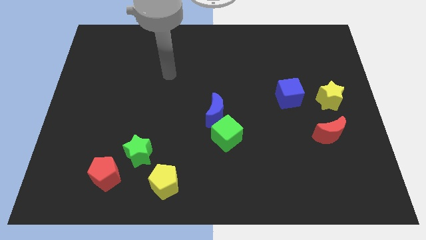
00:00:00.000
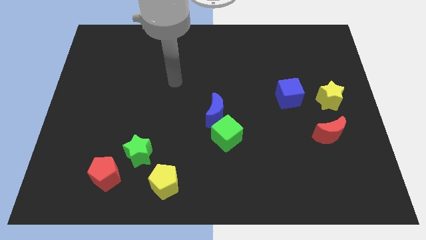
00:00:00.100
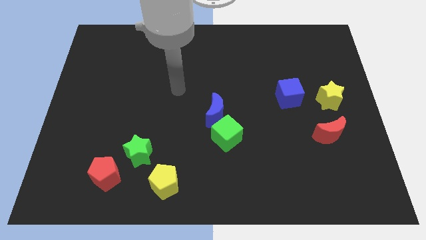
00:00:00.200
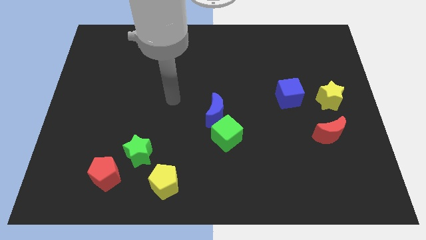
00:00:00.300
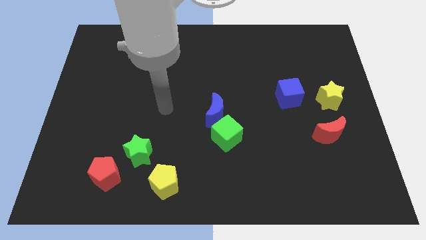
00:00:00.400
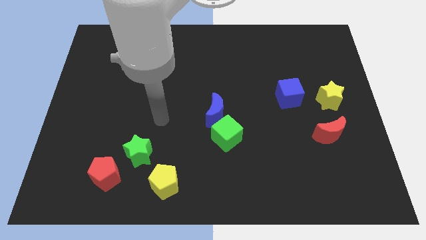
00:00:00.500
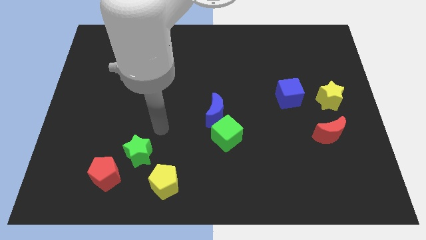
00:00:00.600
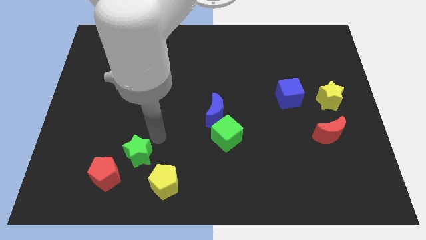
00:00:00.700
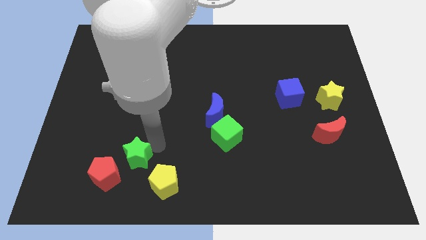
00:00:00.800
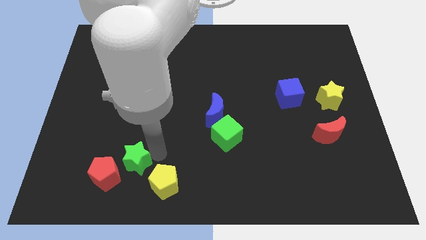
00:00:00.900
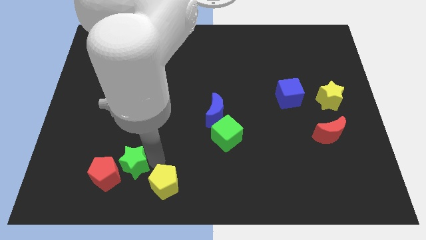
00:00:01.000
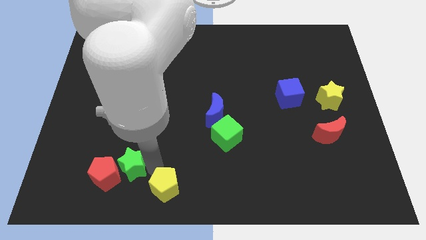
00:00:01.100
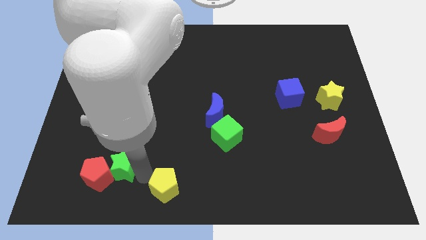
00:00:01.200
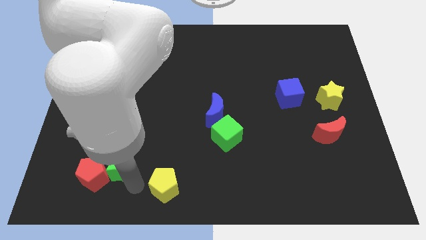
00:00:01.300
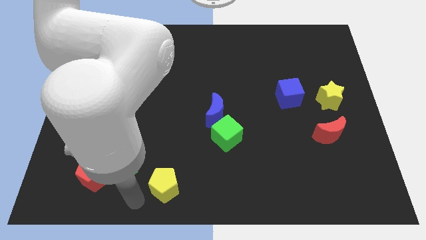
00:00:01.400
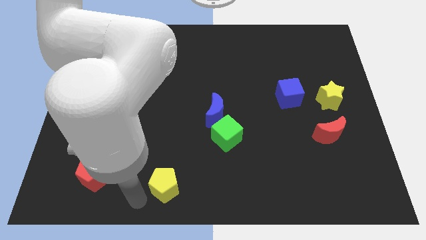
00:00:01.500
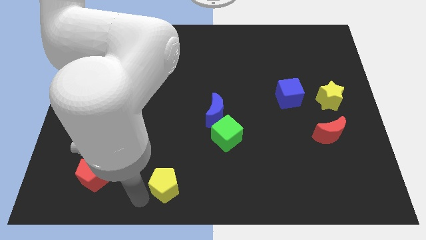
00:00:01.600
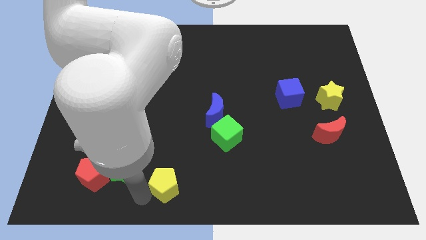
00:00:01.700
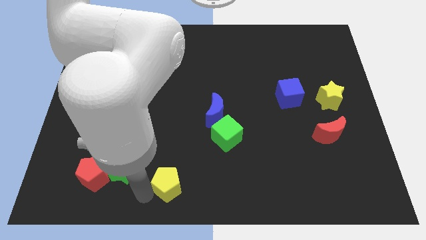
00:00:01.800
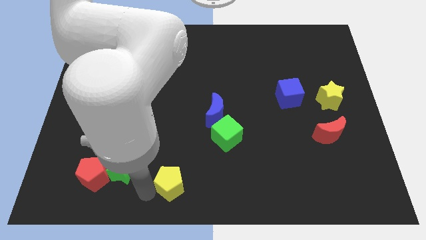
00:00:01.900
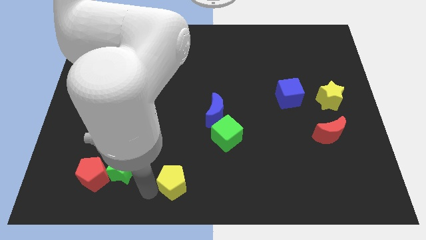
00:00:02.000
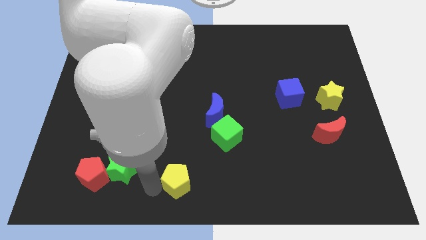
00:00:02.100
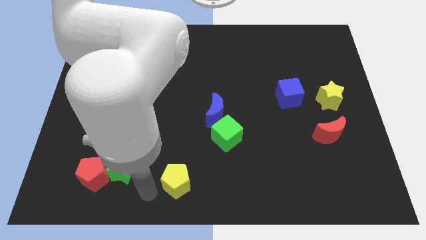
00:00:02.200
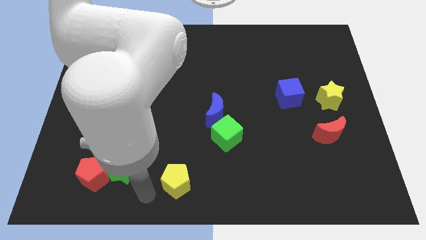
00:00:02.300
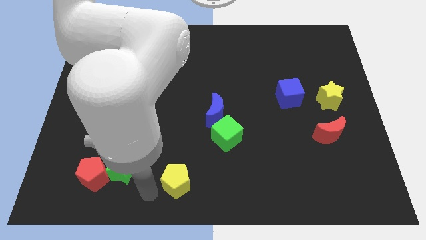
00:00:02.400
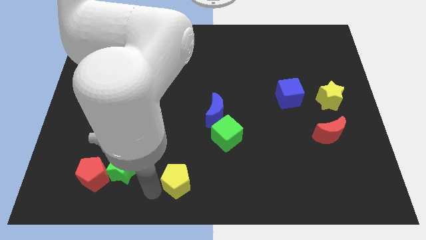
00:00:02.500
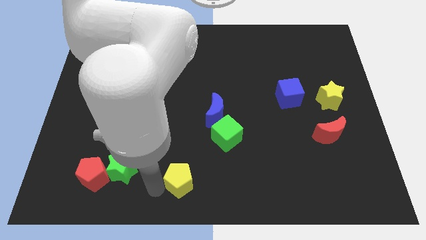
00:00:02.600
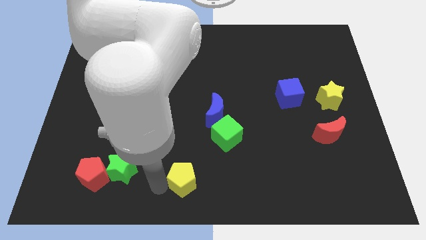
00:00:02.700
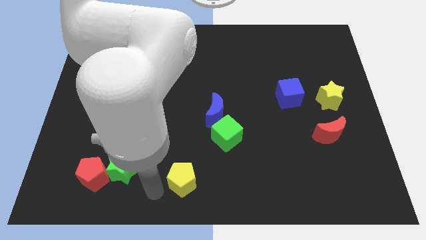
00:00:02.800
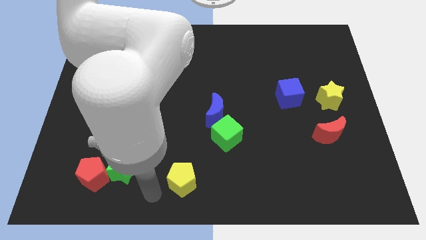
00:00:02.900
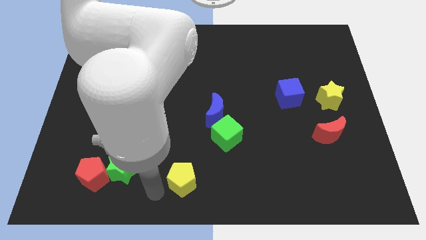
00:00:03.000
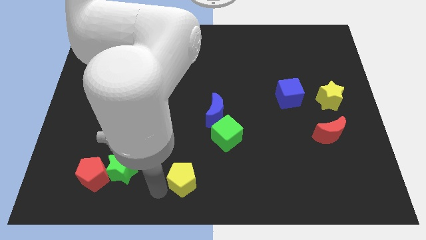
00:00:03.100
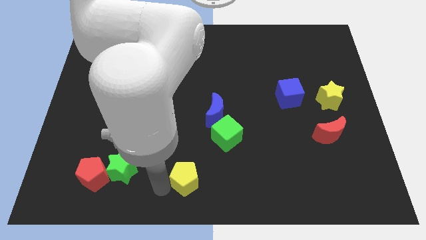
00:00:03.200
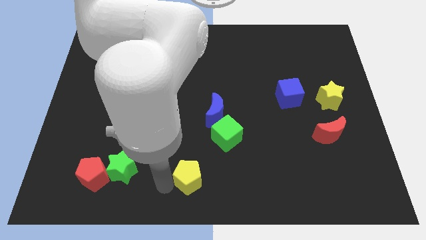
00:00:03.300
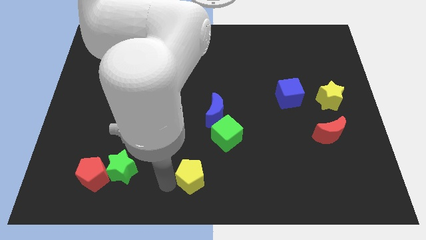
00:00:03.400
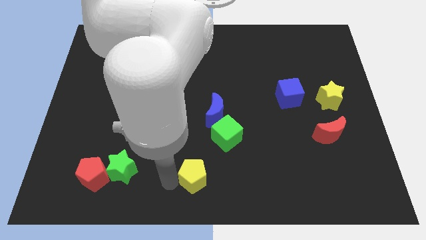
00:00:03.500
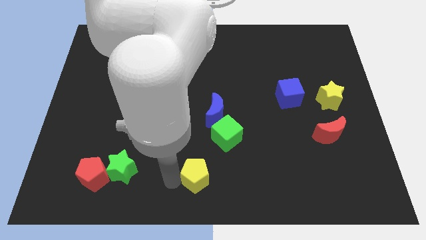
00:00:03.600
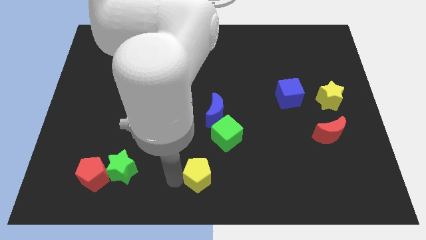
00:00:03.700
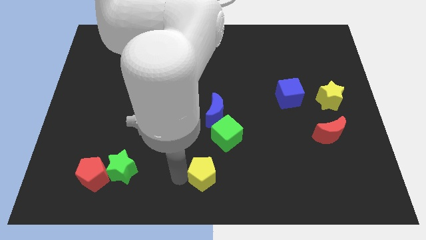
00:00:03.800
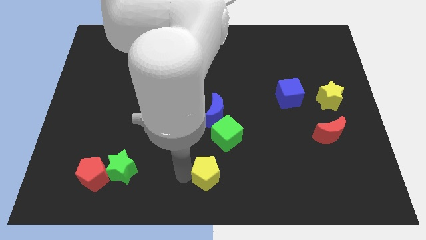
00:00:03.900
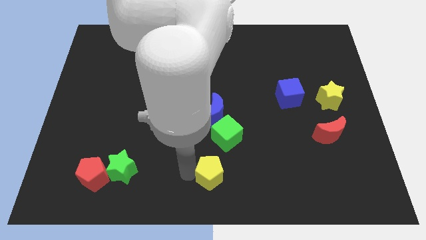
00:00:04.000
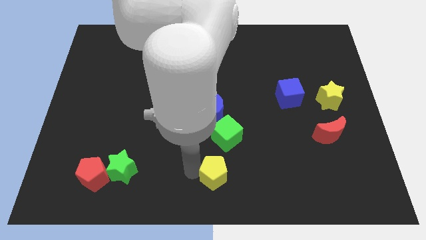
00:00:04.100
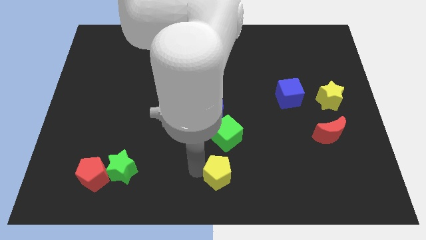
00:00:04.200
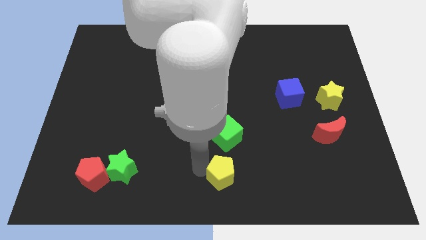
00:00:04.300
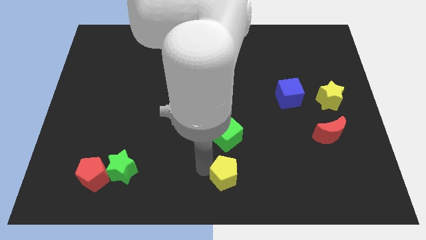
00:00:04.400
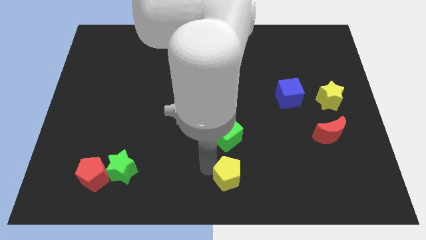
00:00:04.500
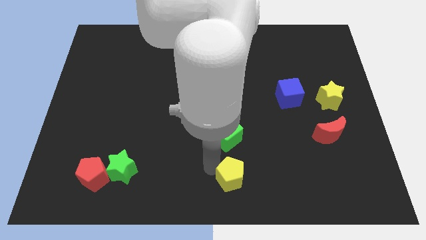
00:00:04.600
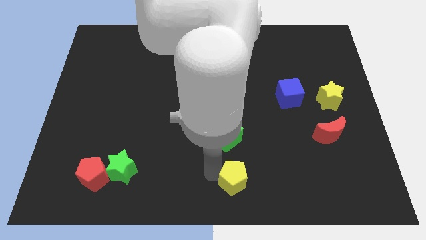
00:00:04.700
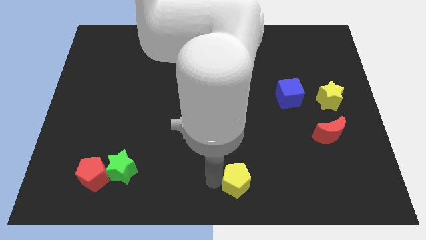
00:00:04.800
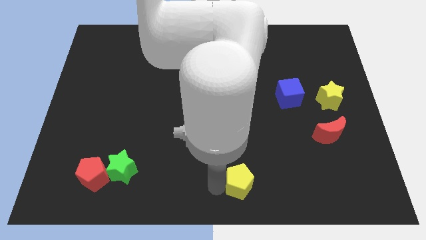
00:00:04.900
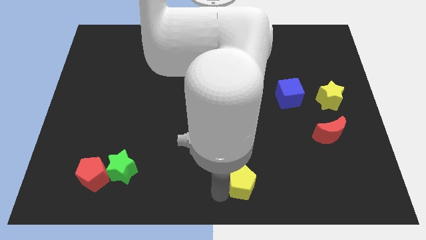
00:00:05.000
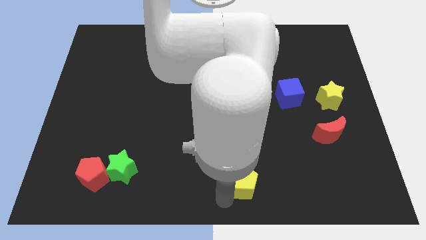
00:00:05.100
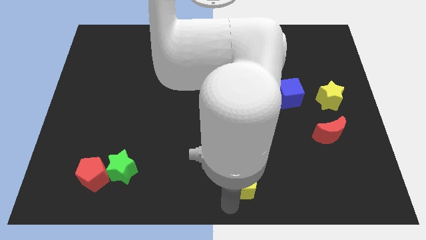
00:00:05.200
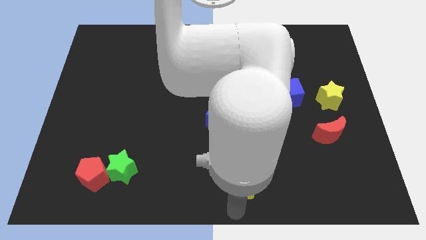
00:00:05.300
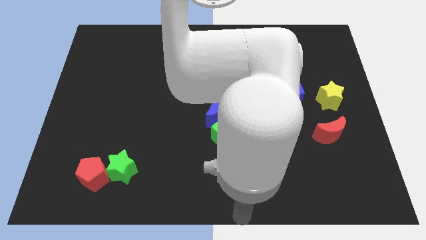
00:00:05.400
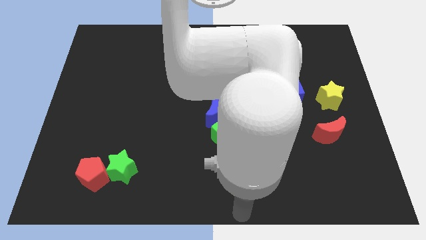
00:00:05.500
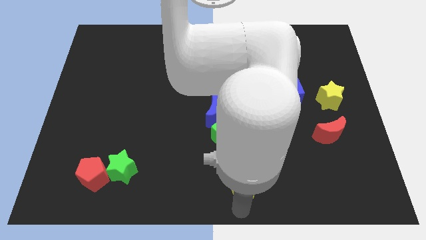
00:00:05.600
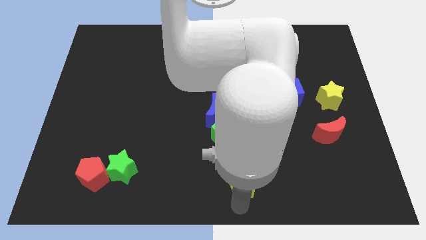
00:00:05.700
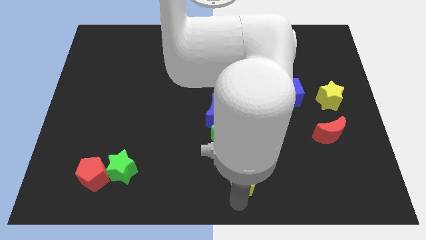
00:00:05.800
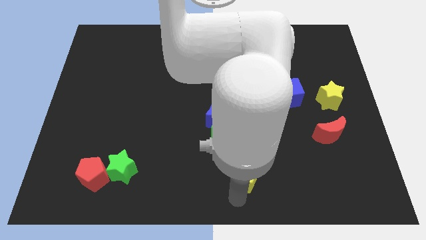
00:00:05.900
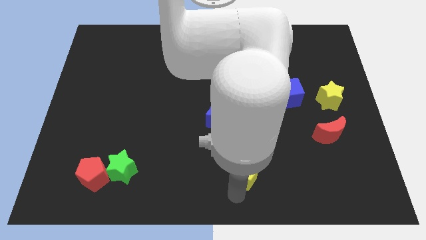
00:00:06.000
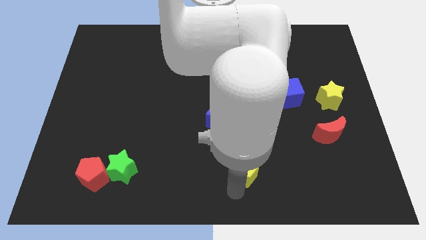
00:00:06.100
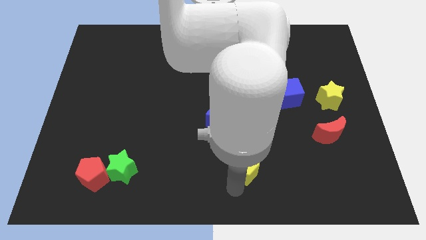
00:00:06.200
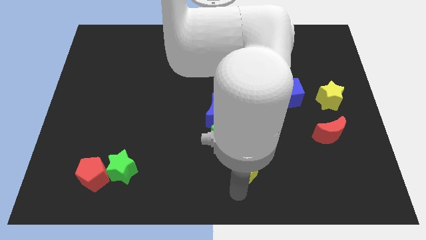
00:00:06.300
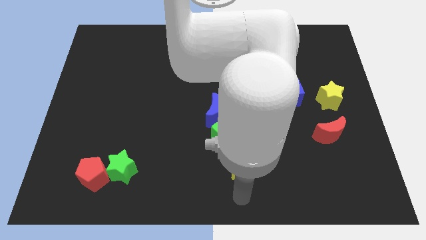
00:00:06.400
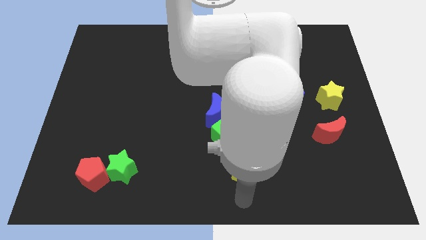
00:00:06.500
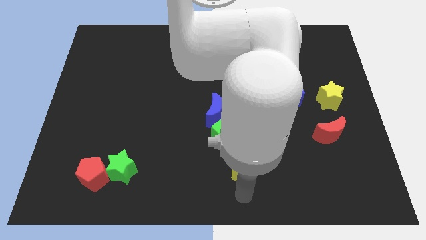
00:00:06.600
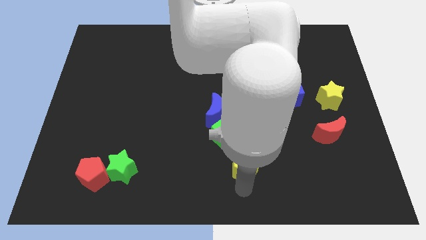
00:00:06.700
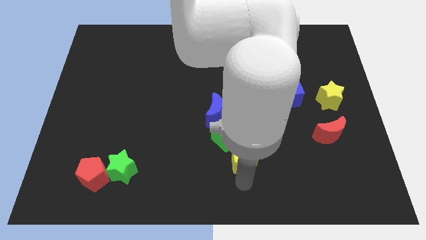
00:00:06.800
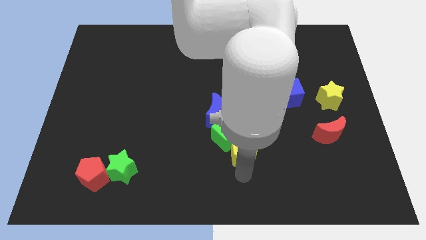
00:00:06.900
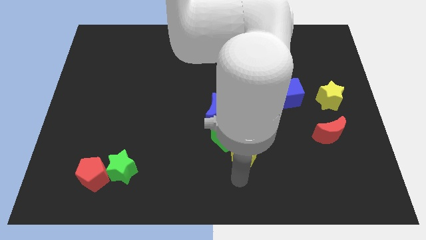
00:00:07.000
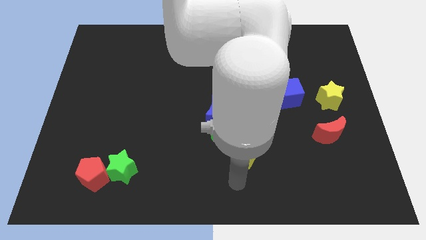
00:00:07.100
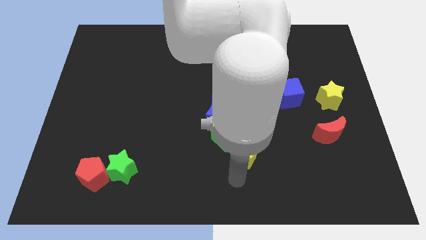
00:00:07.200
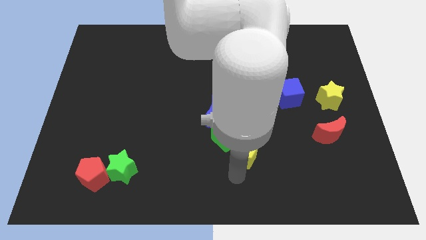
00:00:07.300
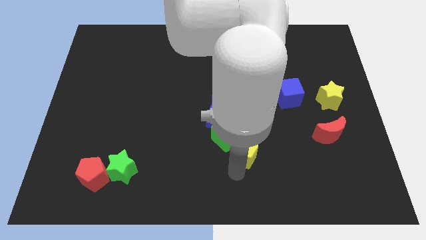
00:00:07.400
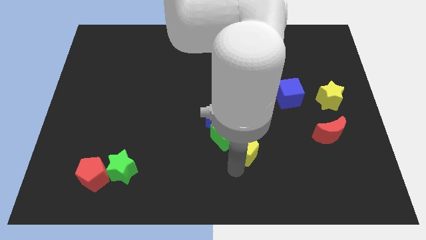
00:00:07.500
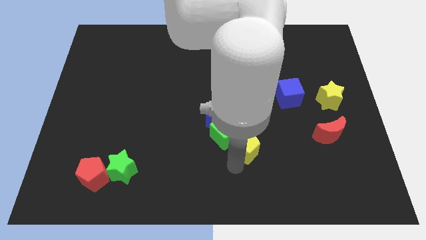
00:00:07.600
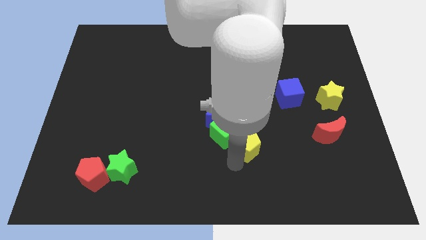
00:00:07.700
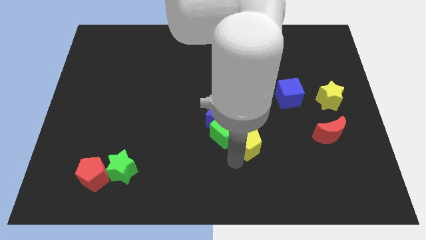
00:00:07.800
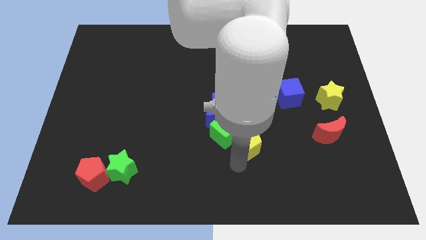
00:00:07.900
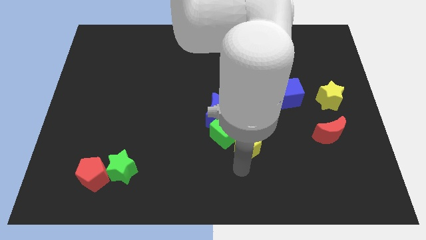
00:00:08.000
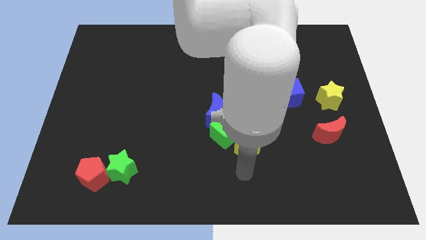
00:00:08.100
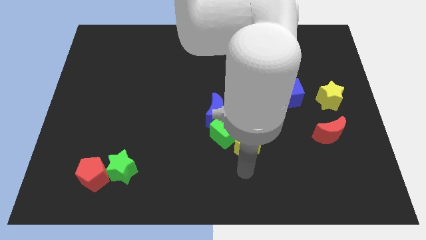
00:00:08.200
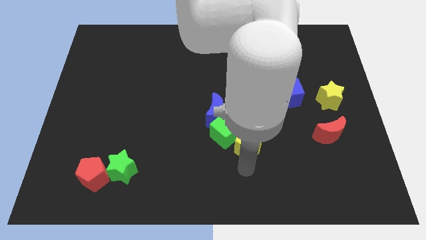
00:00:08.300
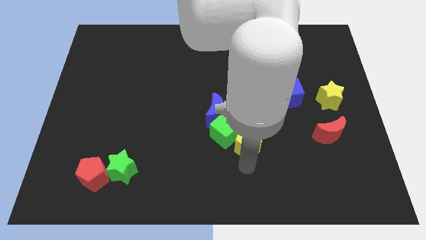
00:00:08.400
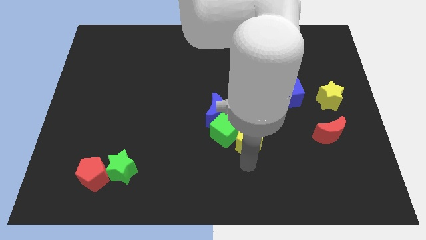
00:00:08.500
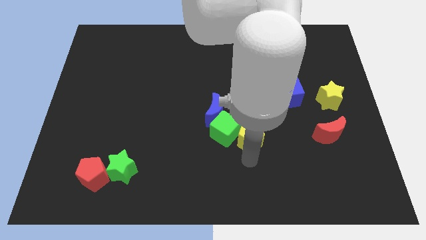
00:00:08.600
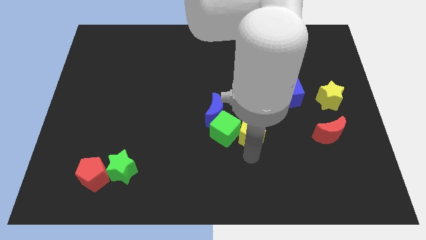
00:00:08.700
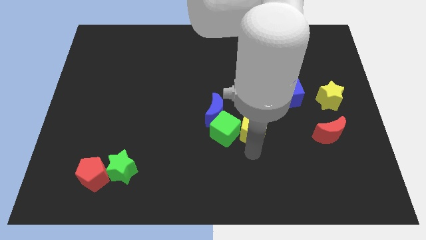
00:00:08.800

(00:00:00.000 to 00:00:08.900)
move the yellow pentagon to the center of the board
